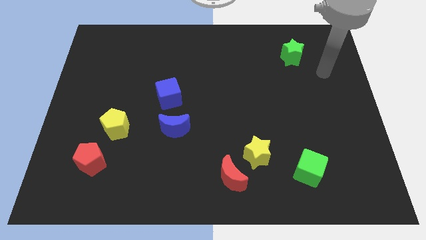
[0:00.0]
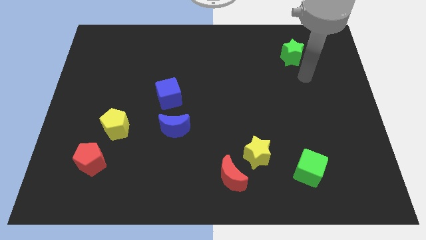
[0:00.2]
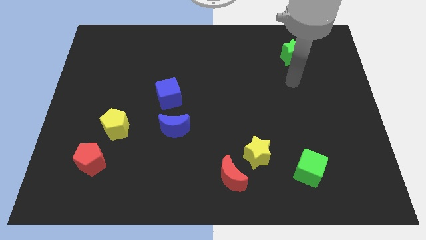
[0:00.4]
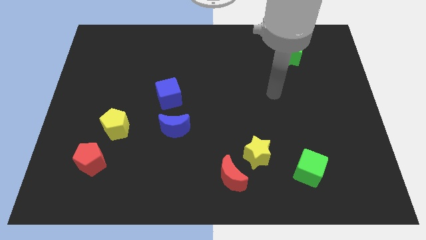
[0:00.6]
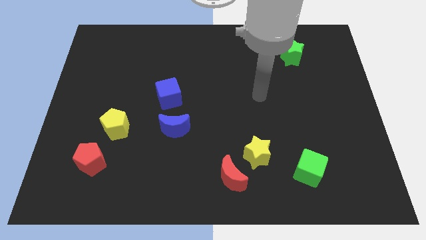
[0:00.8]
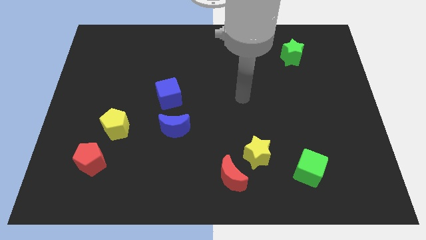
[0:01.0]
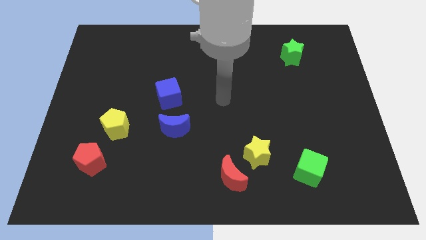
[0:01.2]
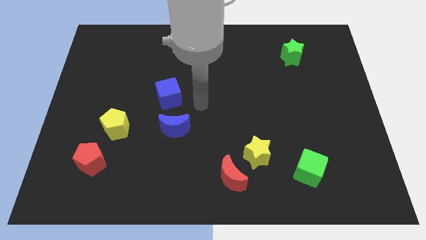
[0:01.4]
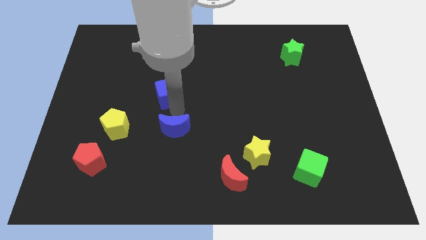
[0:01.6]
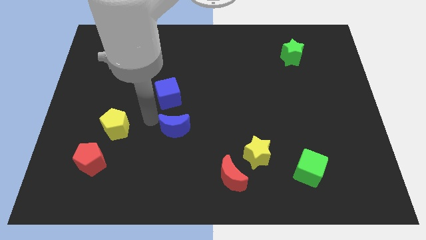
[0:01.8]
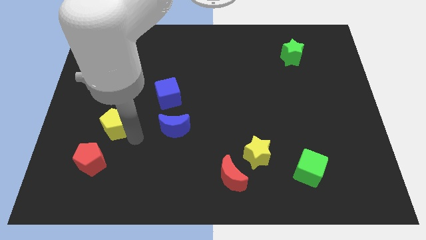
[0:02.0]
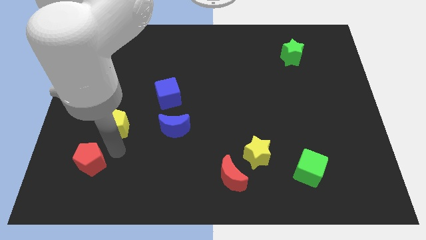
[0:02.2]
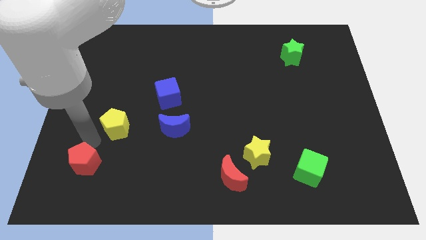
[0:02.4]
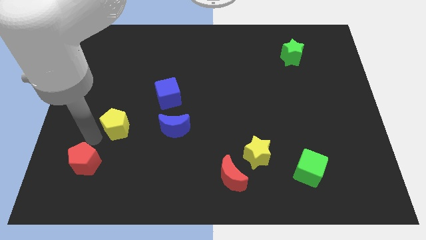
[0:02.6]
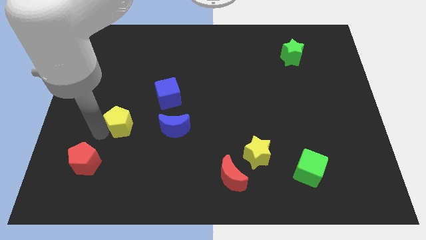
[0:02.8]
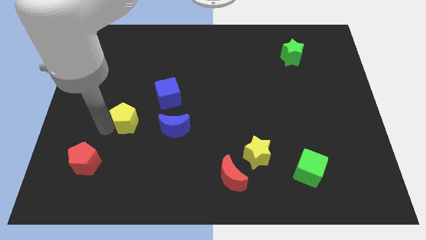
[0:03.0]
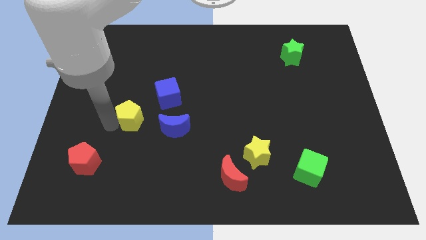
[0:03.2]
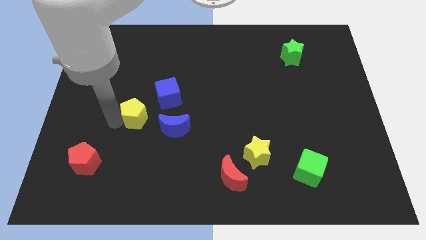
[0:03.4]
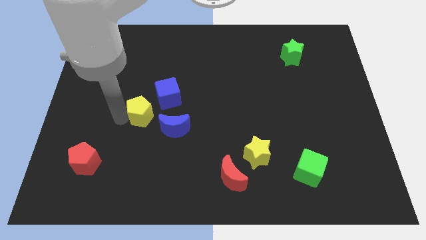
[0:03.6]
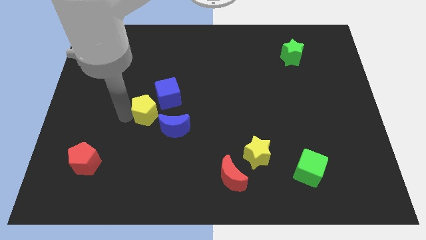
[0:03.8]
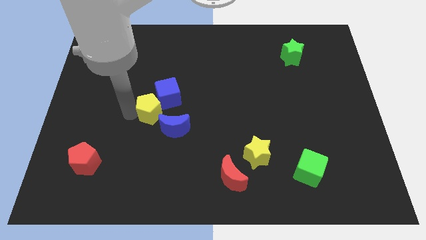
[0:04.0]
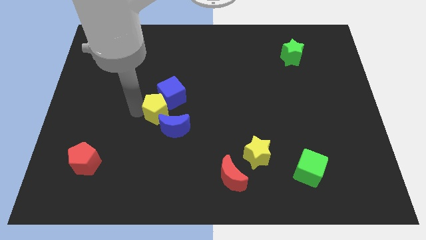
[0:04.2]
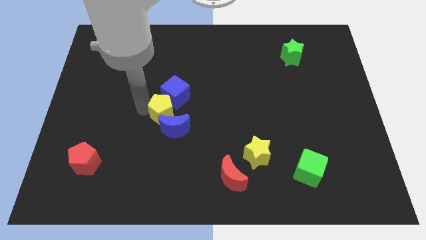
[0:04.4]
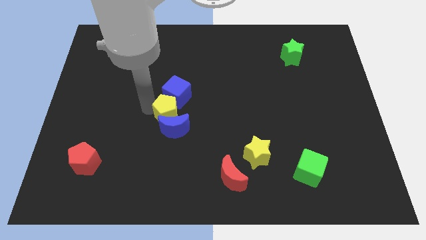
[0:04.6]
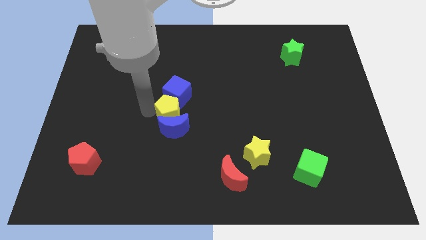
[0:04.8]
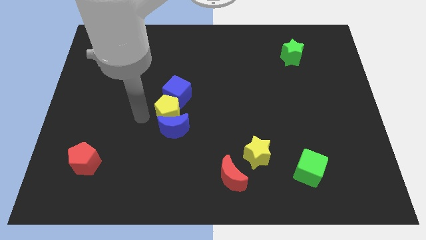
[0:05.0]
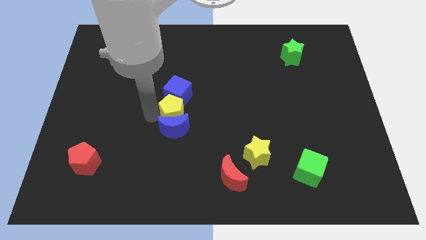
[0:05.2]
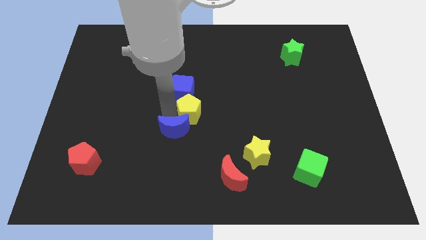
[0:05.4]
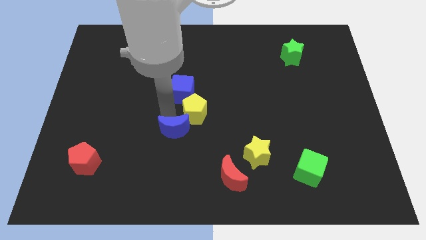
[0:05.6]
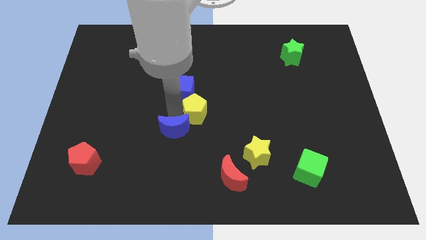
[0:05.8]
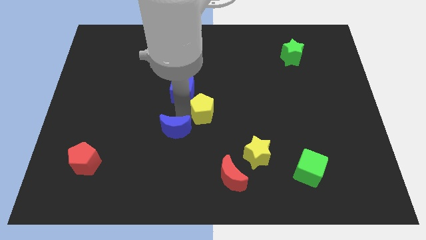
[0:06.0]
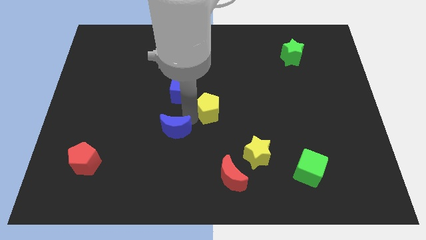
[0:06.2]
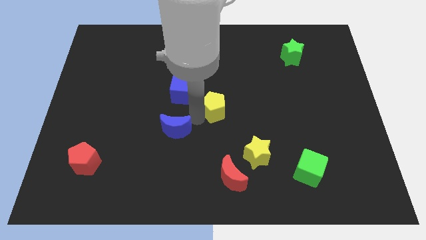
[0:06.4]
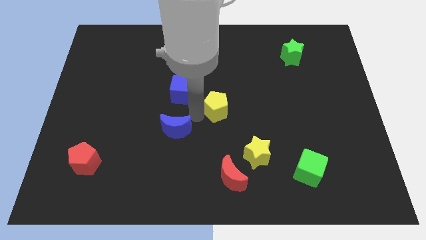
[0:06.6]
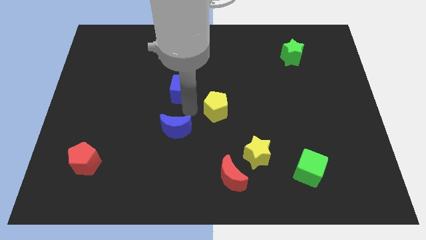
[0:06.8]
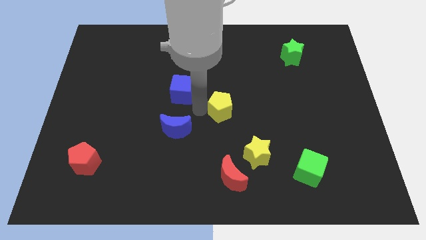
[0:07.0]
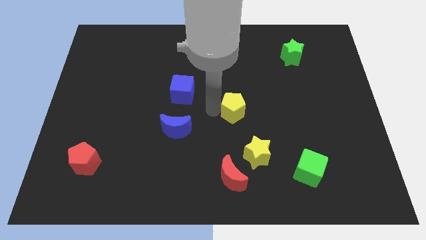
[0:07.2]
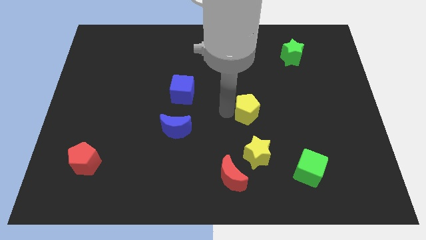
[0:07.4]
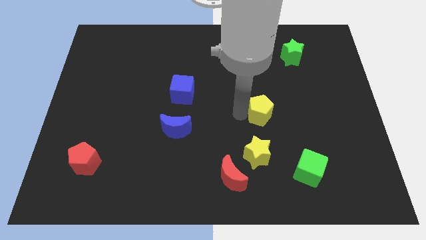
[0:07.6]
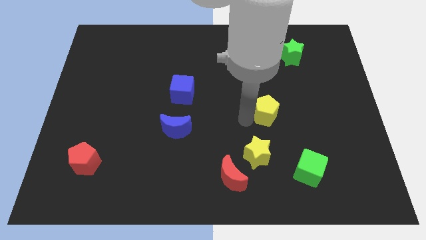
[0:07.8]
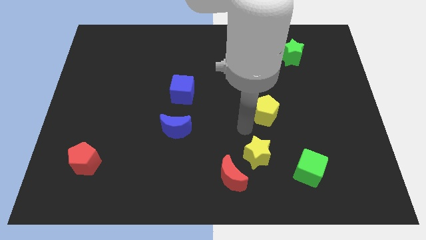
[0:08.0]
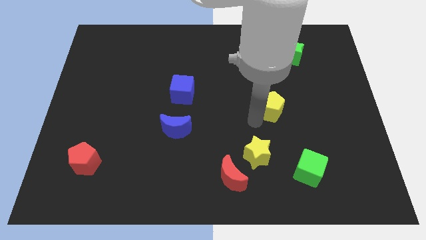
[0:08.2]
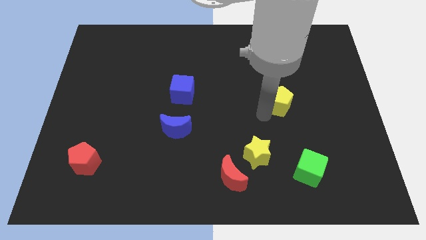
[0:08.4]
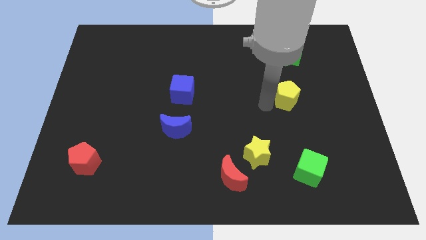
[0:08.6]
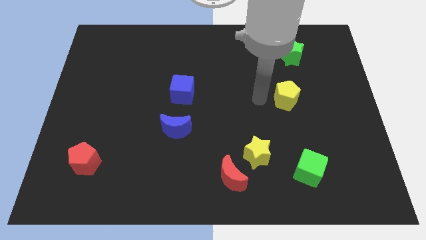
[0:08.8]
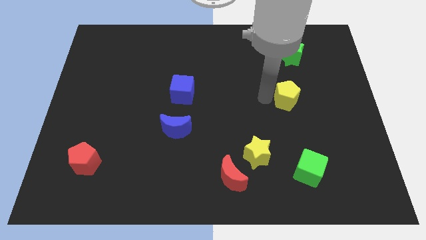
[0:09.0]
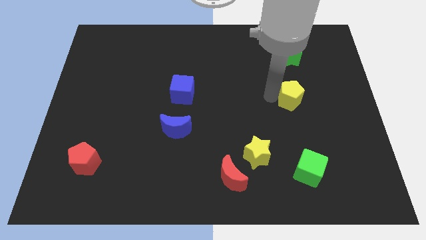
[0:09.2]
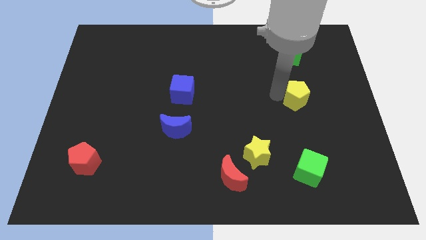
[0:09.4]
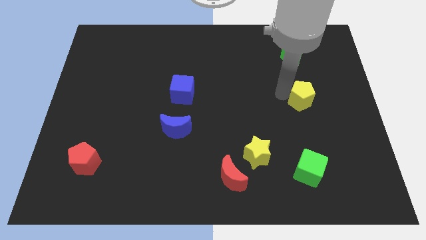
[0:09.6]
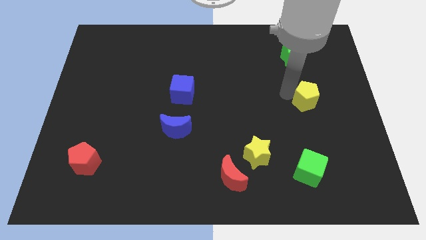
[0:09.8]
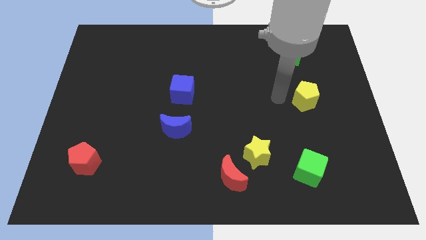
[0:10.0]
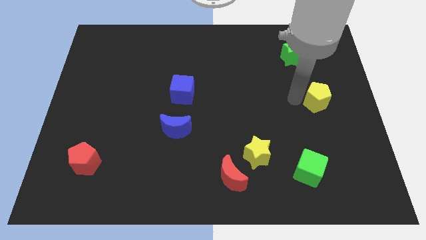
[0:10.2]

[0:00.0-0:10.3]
put the yellow pentagon to the right side

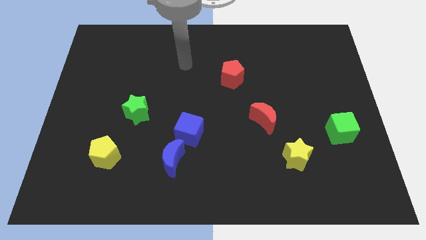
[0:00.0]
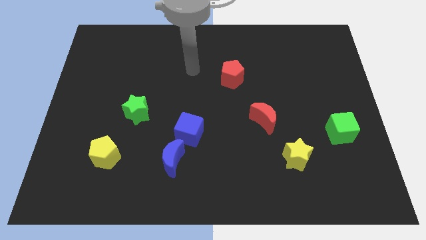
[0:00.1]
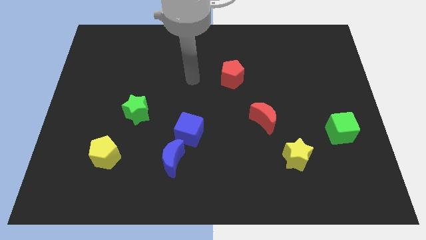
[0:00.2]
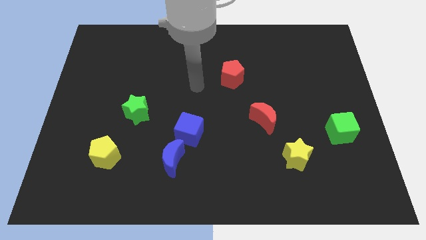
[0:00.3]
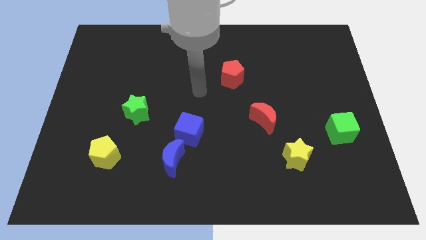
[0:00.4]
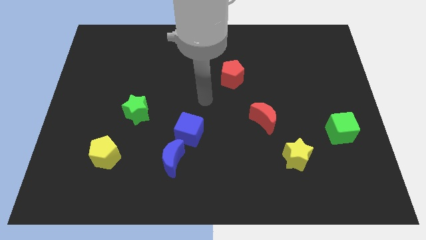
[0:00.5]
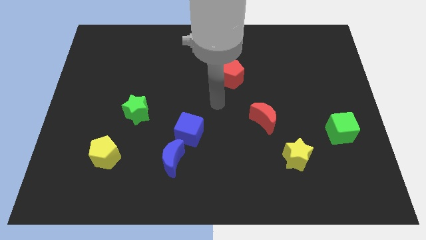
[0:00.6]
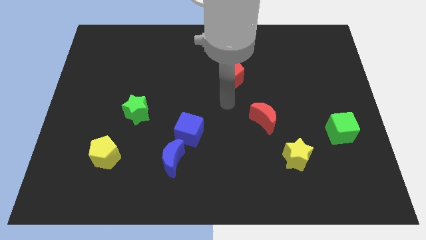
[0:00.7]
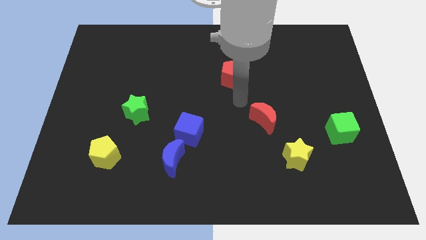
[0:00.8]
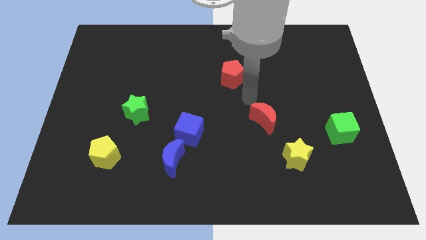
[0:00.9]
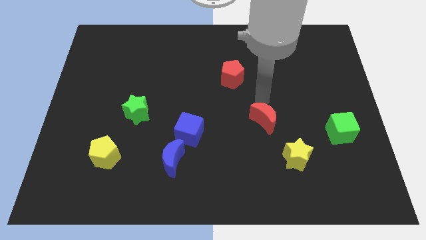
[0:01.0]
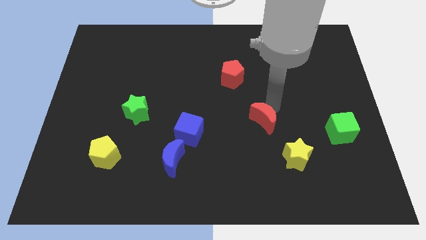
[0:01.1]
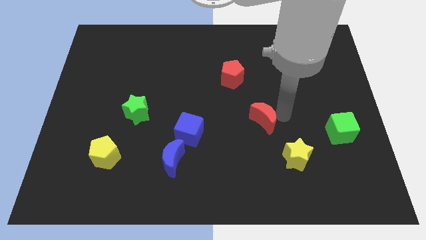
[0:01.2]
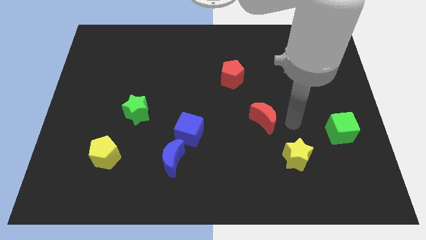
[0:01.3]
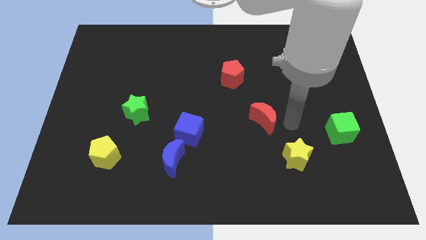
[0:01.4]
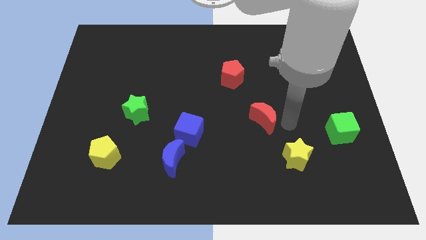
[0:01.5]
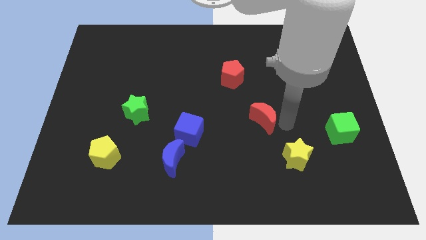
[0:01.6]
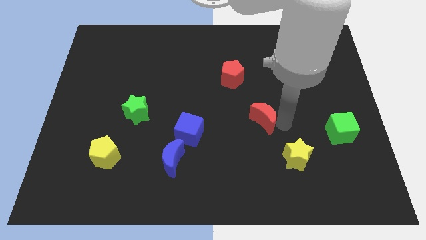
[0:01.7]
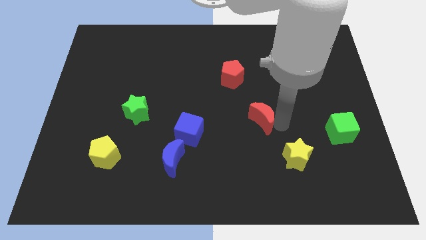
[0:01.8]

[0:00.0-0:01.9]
slide the red moon to the middle of the board
